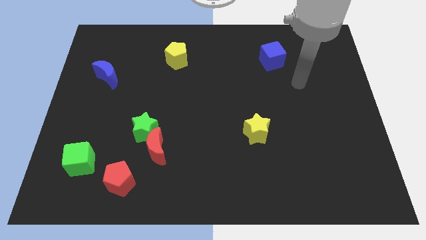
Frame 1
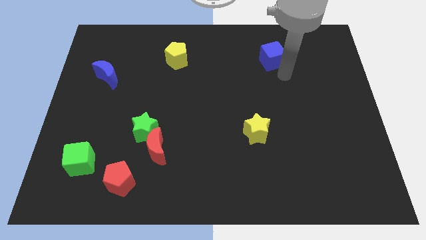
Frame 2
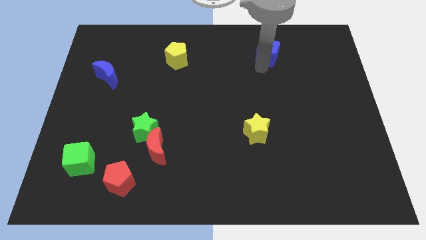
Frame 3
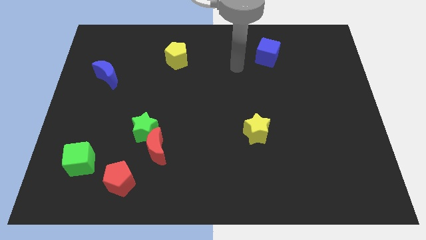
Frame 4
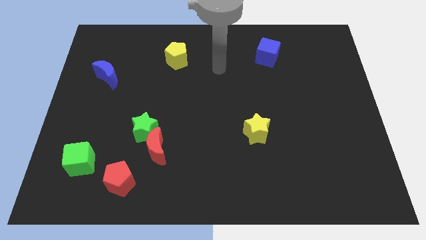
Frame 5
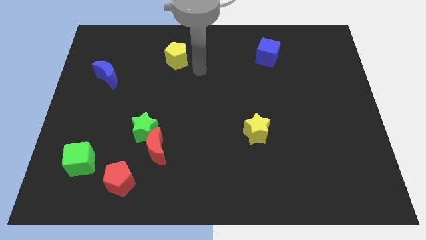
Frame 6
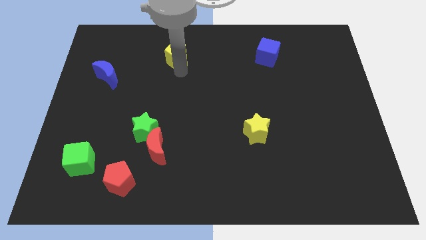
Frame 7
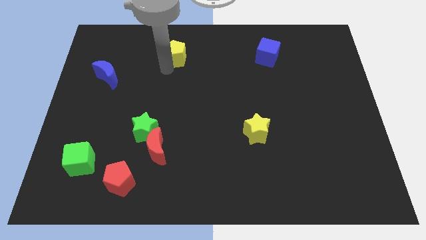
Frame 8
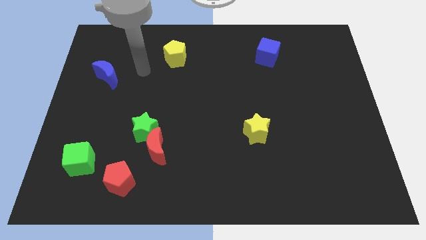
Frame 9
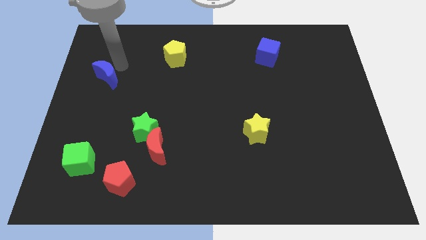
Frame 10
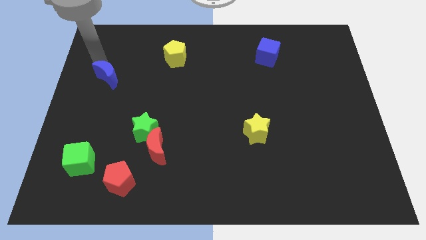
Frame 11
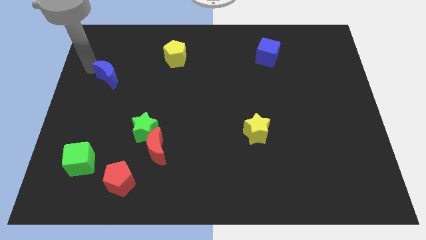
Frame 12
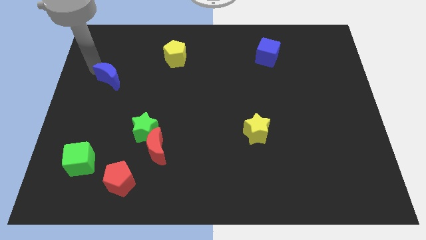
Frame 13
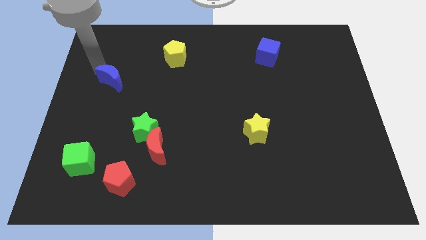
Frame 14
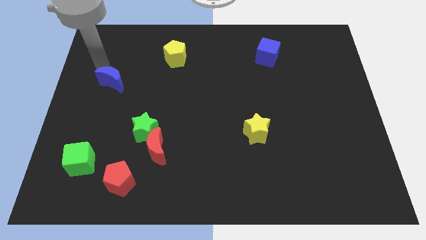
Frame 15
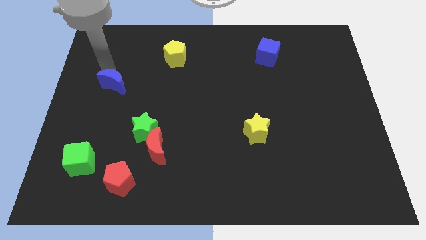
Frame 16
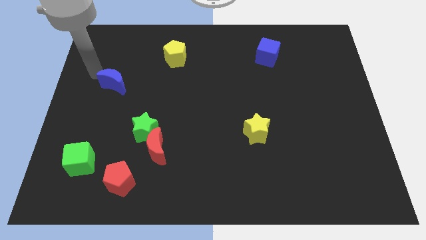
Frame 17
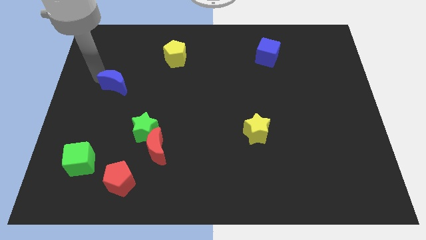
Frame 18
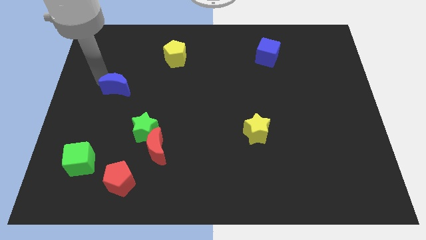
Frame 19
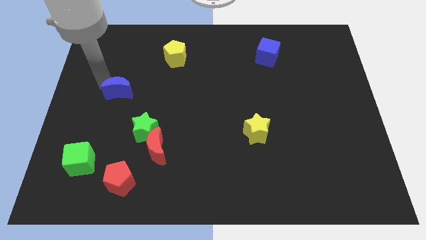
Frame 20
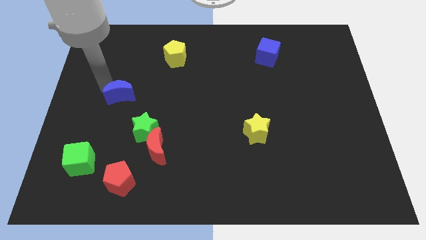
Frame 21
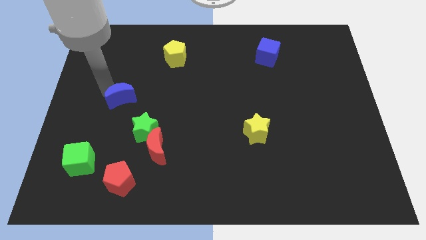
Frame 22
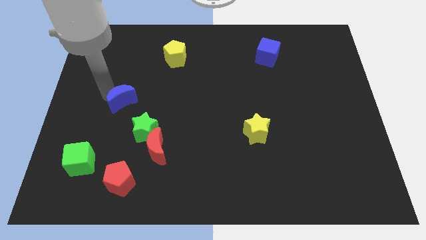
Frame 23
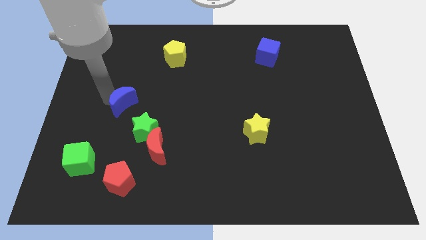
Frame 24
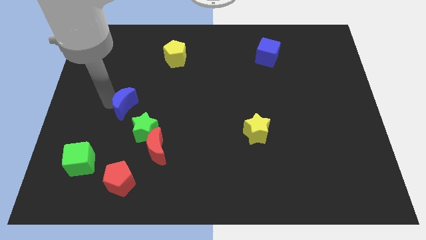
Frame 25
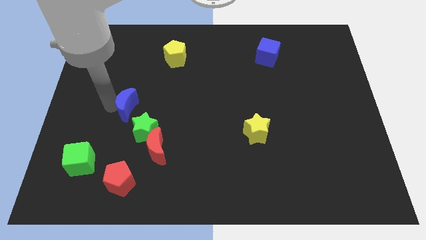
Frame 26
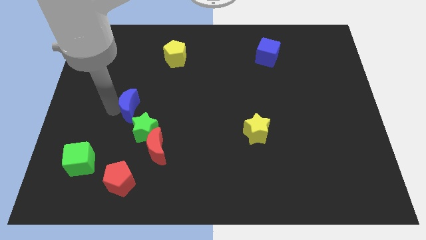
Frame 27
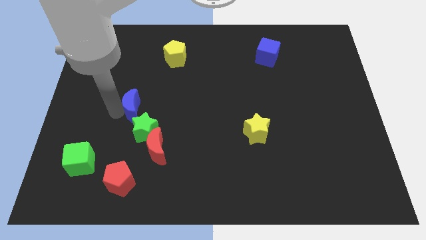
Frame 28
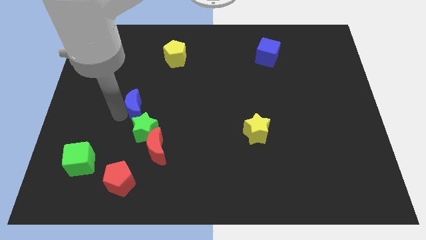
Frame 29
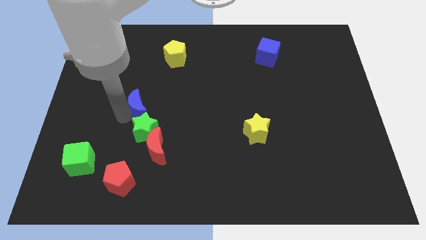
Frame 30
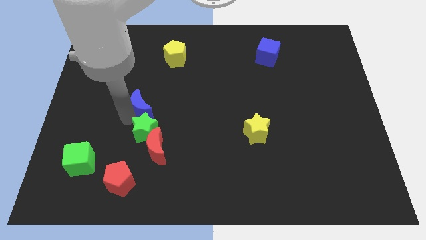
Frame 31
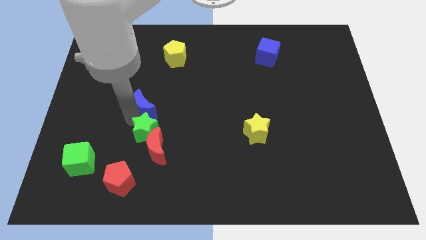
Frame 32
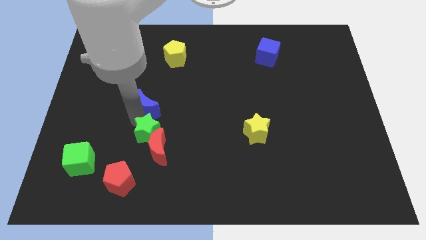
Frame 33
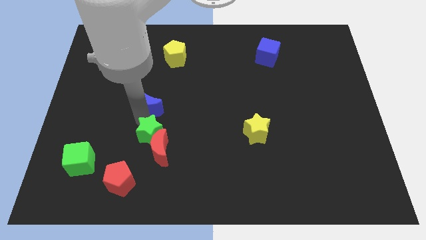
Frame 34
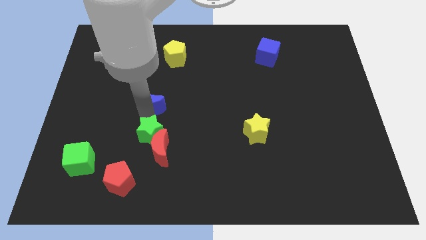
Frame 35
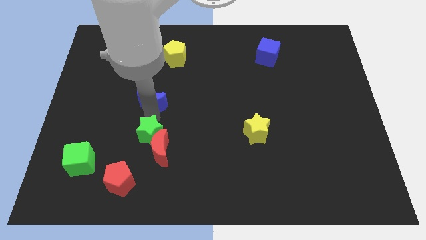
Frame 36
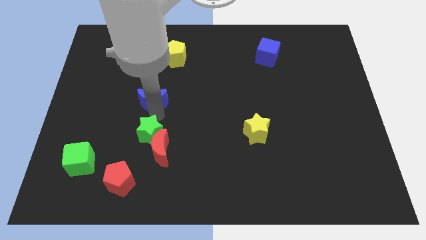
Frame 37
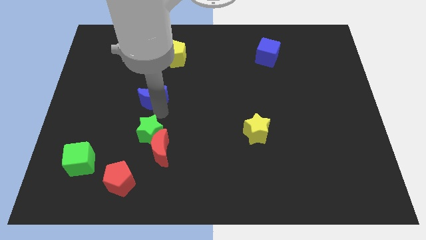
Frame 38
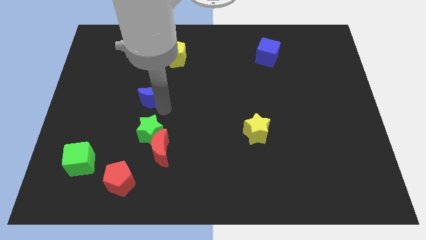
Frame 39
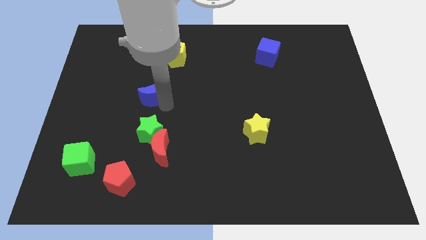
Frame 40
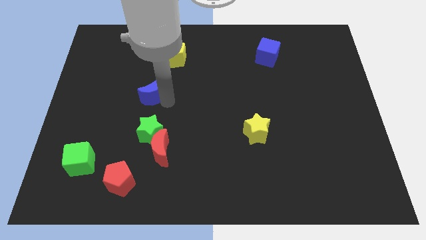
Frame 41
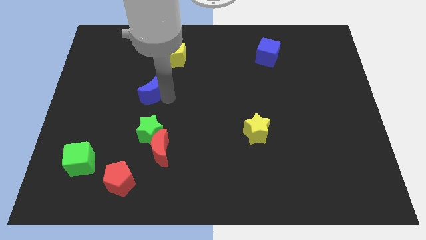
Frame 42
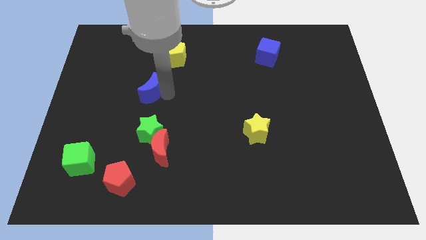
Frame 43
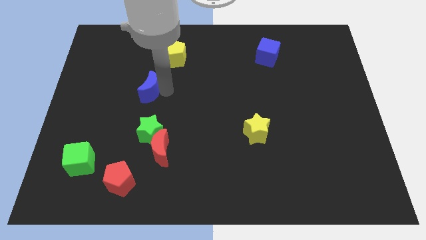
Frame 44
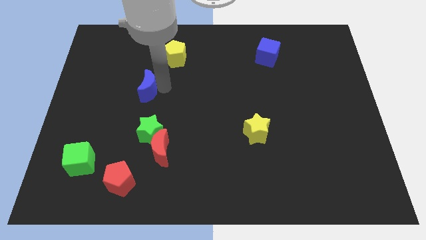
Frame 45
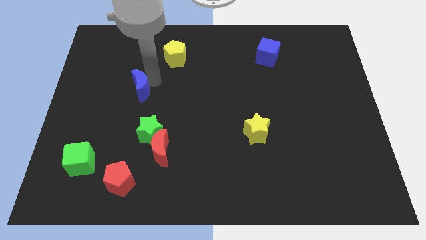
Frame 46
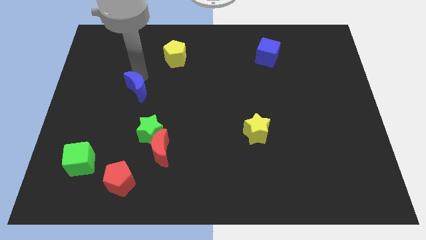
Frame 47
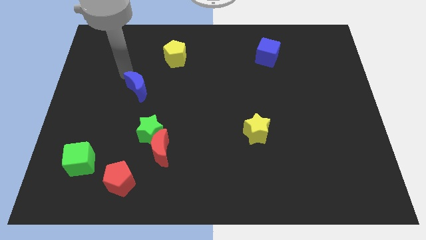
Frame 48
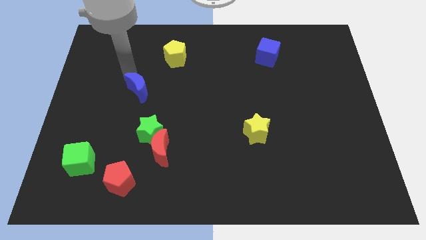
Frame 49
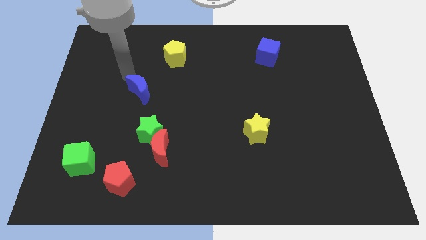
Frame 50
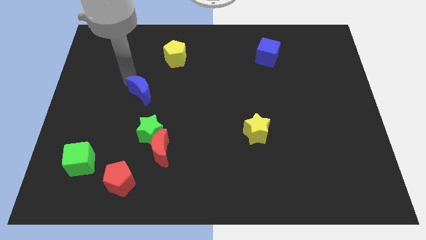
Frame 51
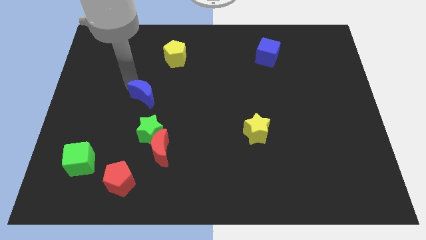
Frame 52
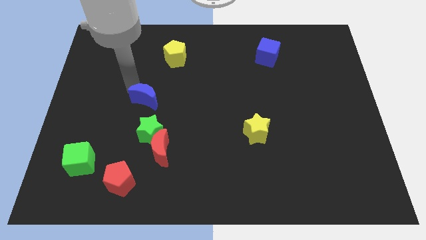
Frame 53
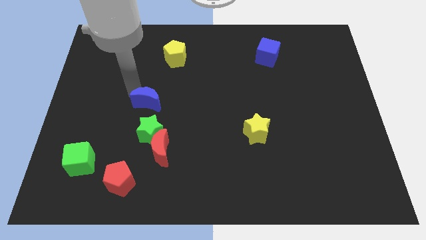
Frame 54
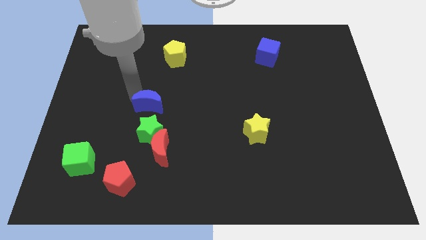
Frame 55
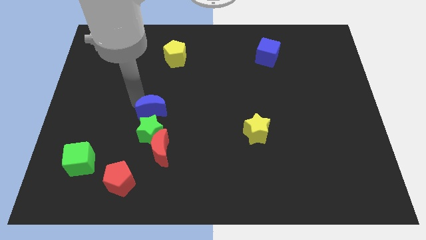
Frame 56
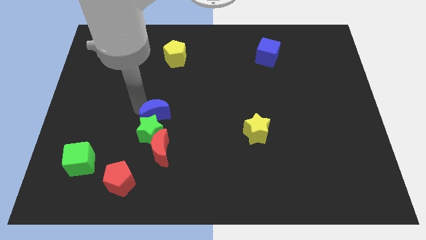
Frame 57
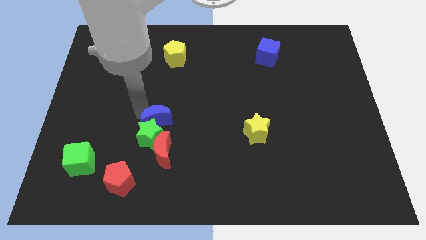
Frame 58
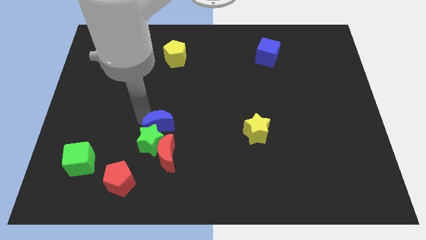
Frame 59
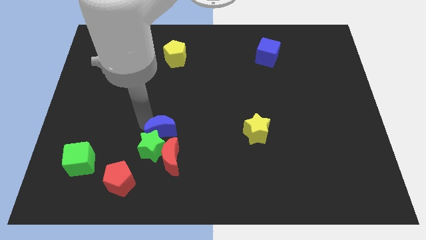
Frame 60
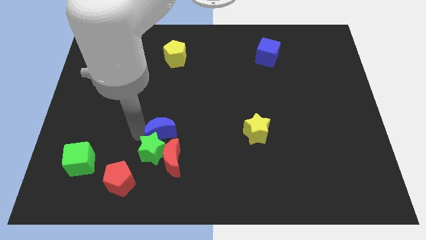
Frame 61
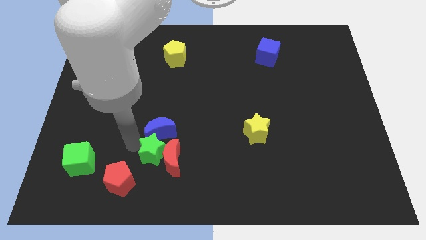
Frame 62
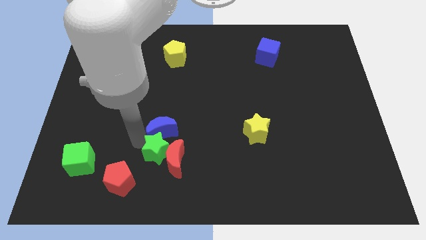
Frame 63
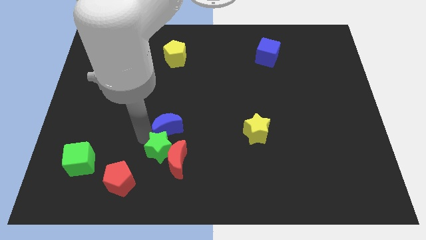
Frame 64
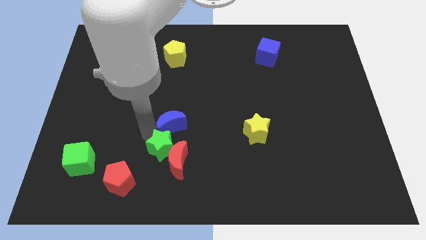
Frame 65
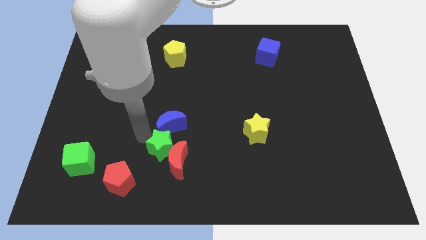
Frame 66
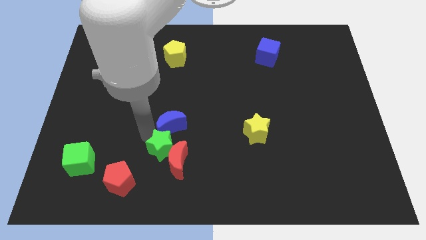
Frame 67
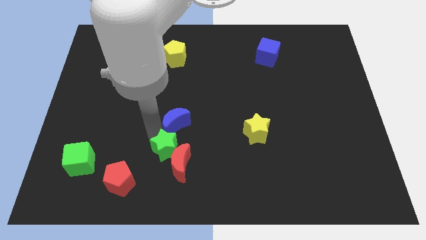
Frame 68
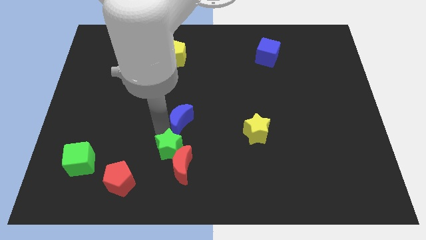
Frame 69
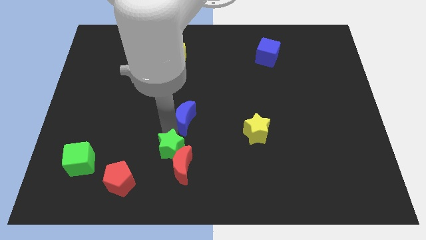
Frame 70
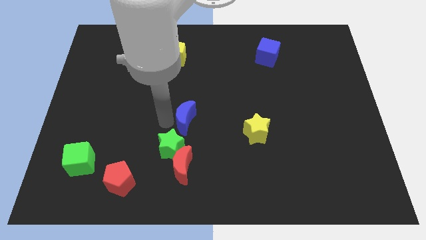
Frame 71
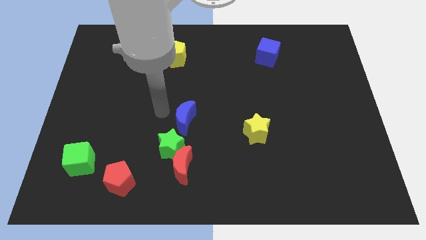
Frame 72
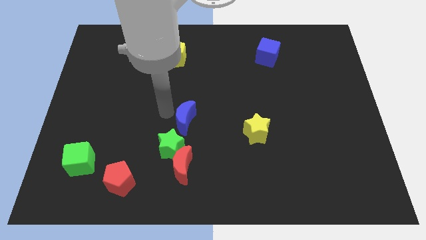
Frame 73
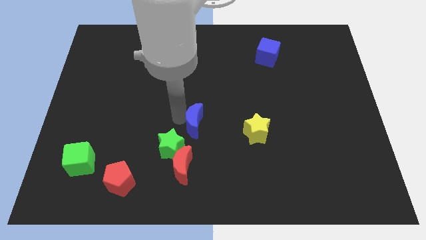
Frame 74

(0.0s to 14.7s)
put the blue moon to the left side of the yellow star
